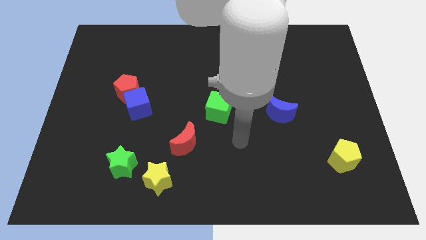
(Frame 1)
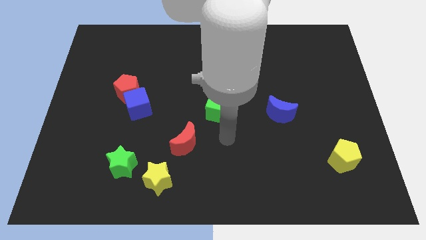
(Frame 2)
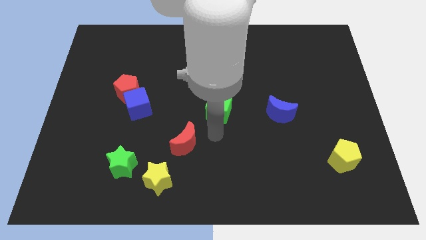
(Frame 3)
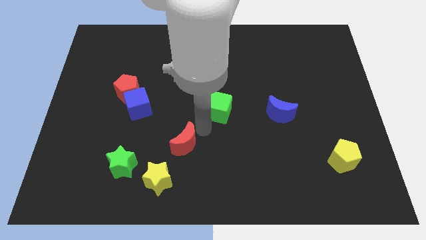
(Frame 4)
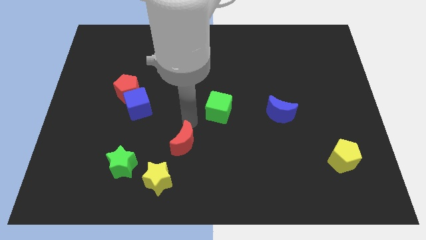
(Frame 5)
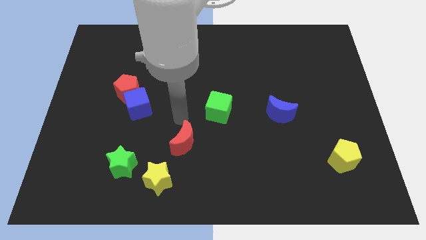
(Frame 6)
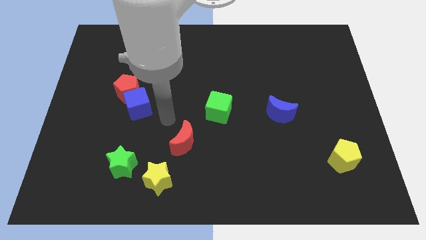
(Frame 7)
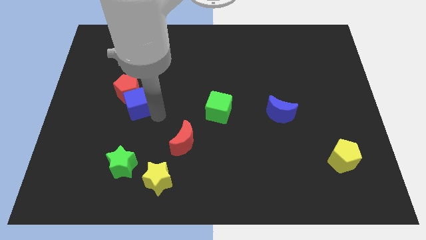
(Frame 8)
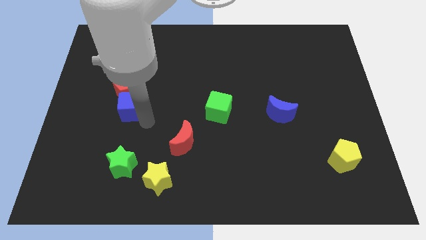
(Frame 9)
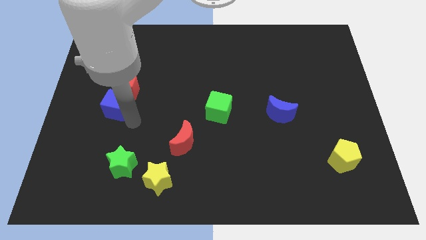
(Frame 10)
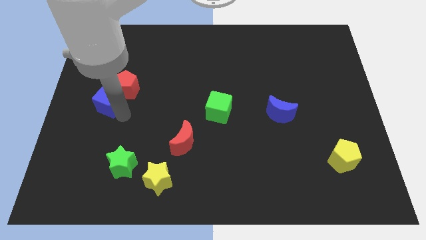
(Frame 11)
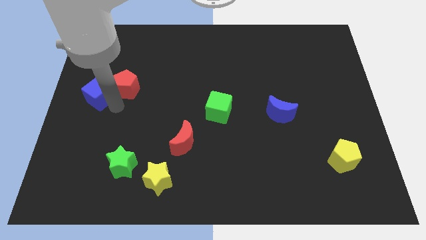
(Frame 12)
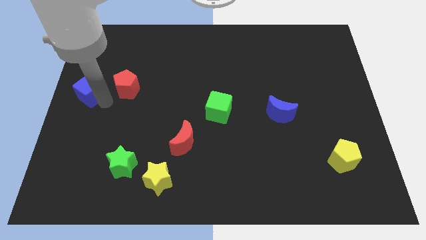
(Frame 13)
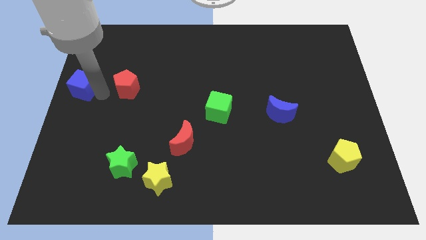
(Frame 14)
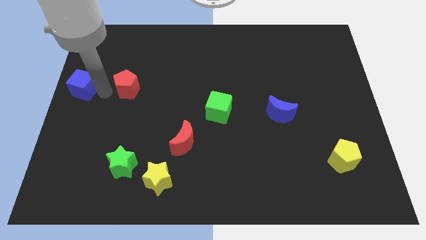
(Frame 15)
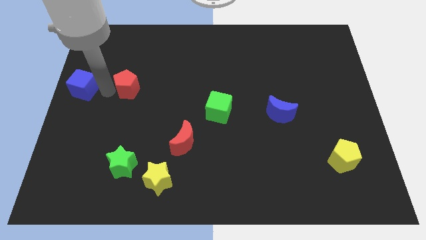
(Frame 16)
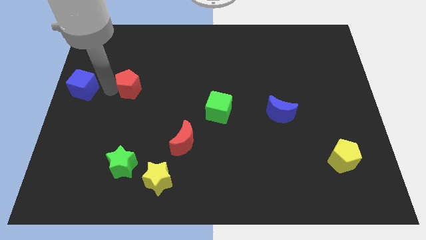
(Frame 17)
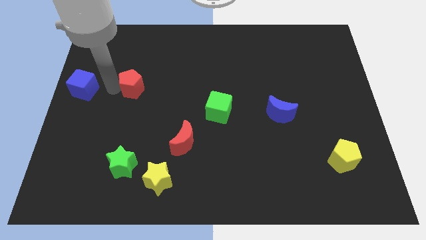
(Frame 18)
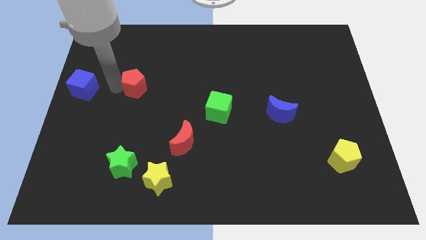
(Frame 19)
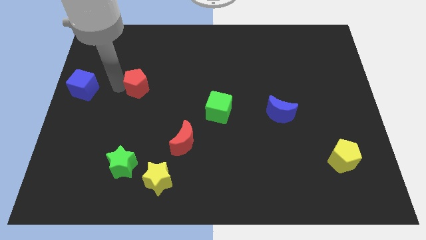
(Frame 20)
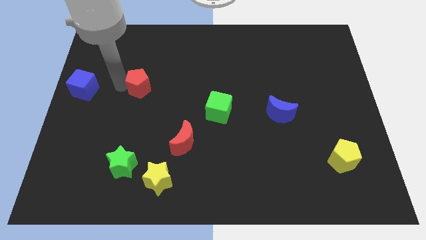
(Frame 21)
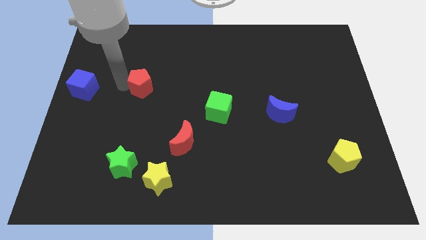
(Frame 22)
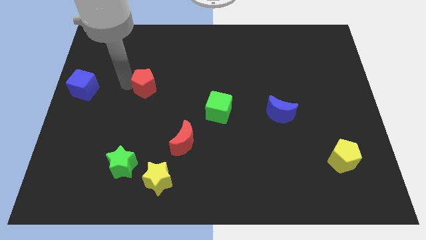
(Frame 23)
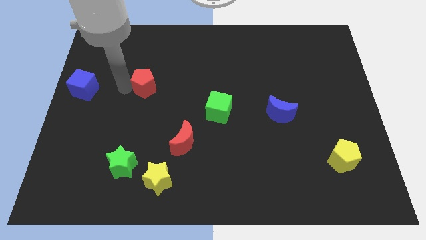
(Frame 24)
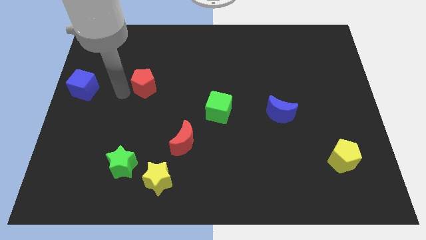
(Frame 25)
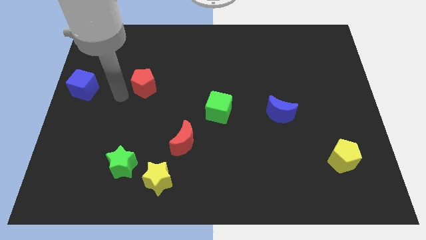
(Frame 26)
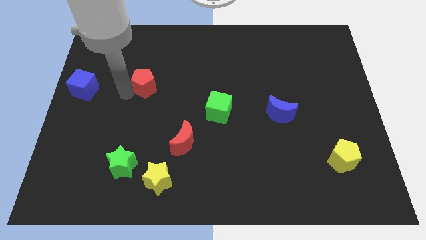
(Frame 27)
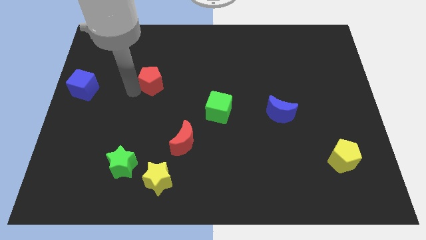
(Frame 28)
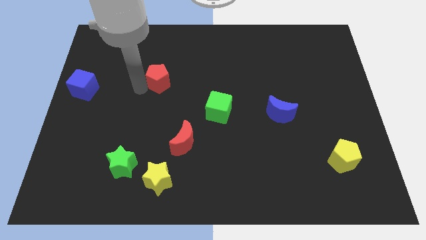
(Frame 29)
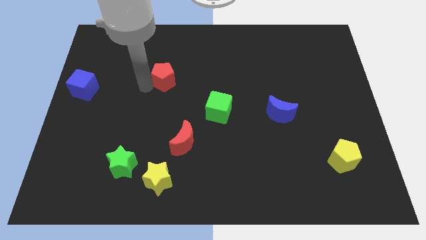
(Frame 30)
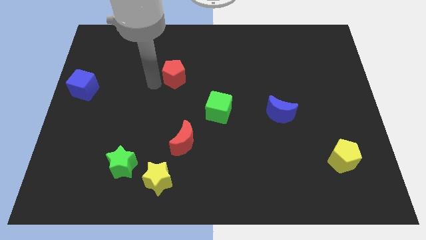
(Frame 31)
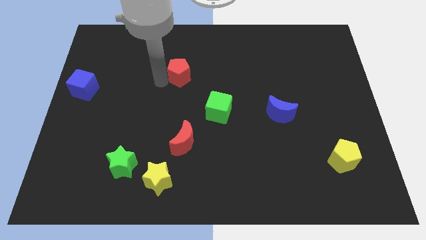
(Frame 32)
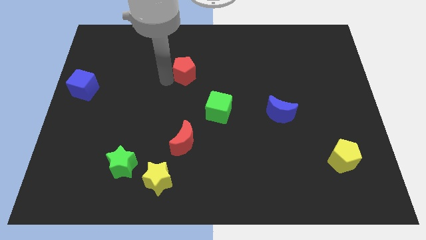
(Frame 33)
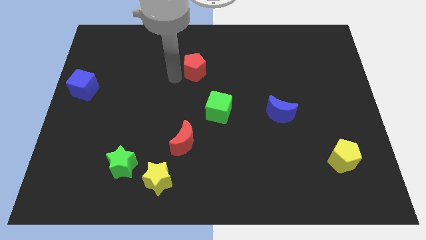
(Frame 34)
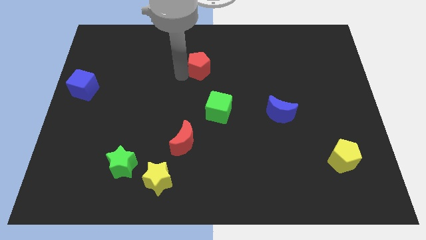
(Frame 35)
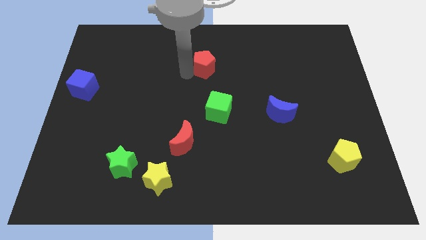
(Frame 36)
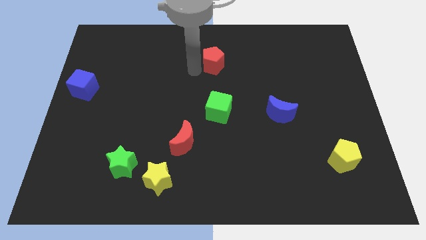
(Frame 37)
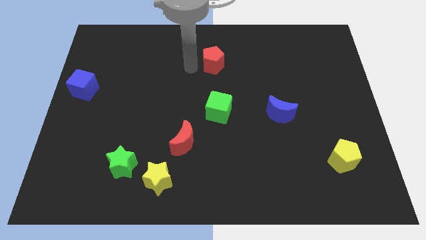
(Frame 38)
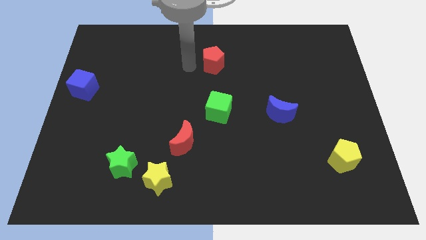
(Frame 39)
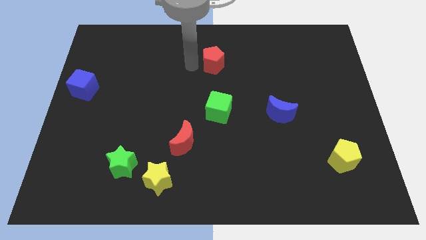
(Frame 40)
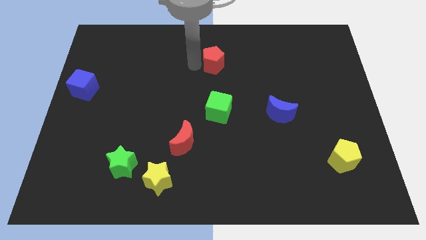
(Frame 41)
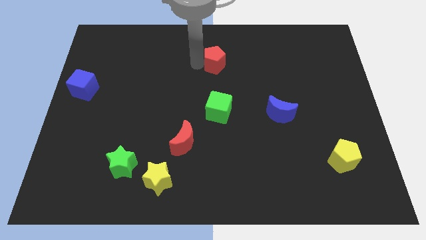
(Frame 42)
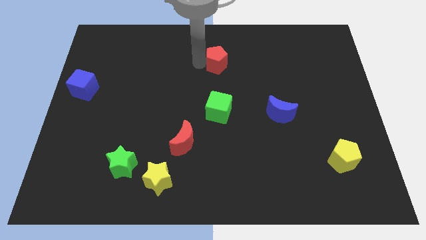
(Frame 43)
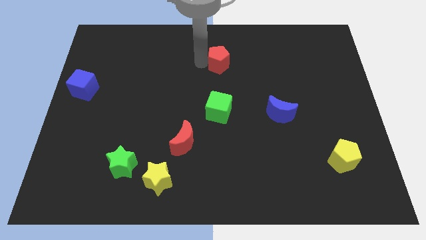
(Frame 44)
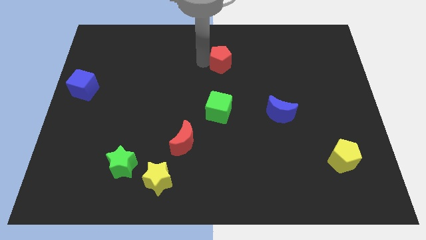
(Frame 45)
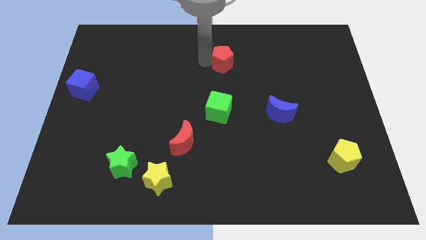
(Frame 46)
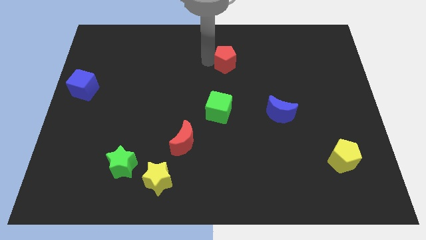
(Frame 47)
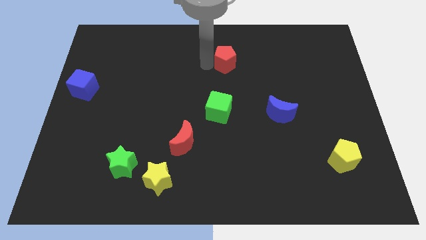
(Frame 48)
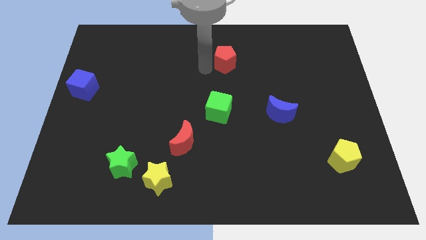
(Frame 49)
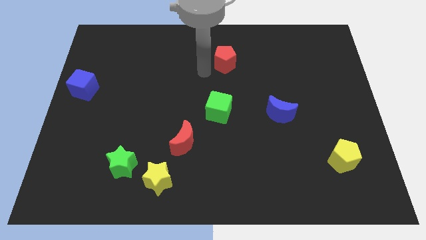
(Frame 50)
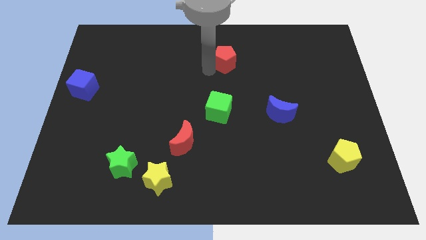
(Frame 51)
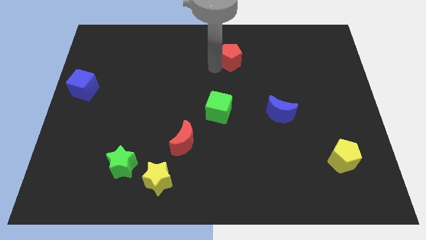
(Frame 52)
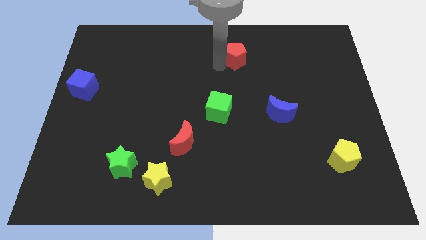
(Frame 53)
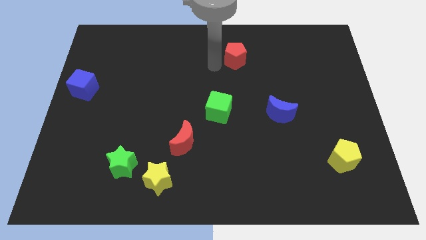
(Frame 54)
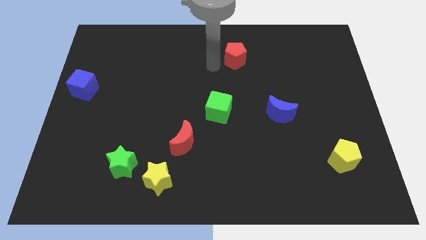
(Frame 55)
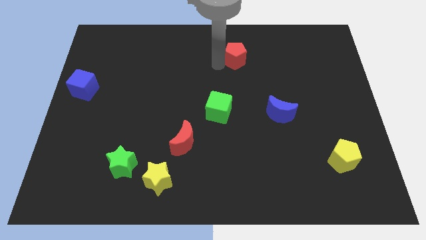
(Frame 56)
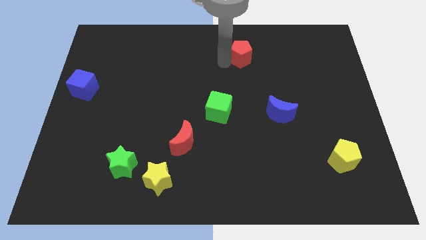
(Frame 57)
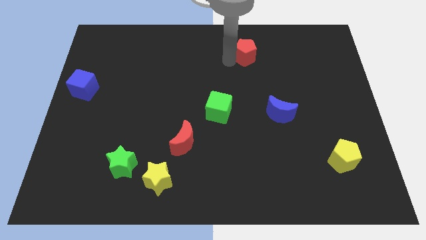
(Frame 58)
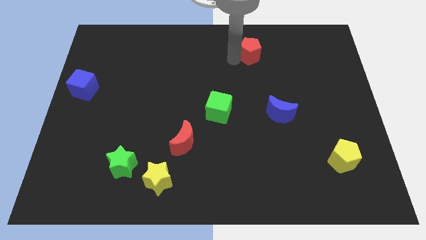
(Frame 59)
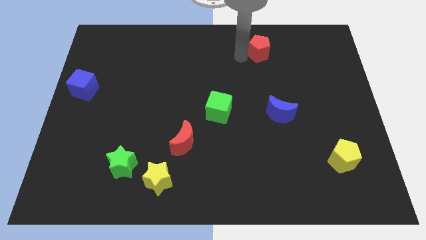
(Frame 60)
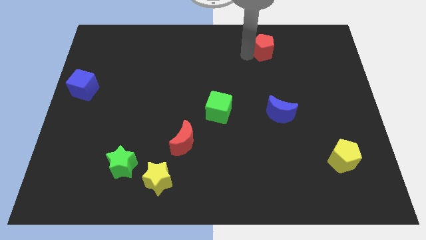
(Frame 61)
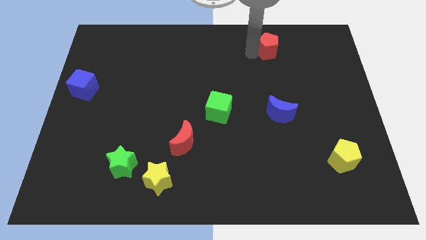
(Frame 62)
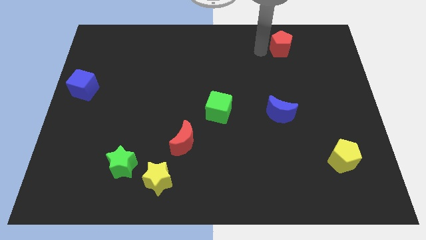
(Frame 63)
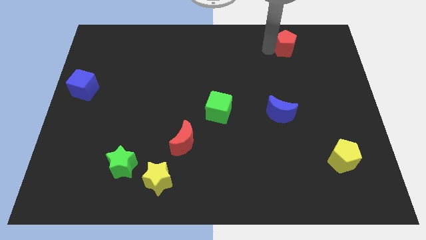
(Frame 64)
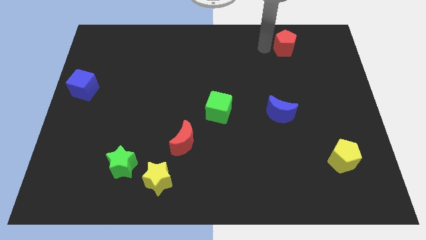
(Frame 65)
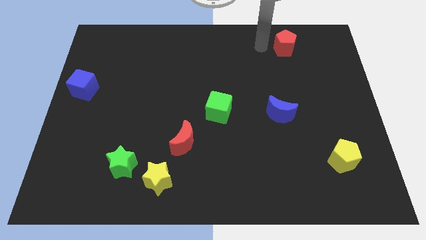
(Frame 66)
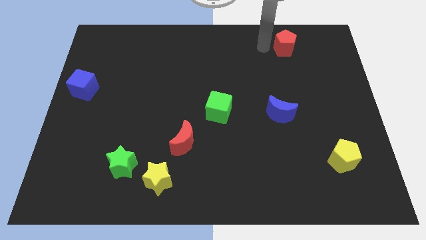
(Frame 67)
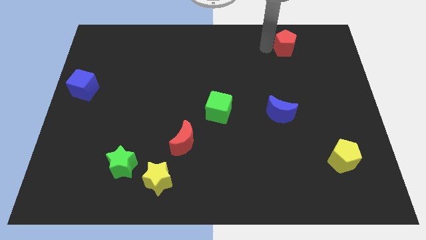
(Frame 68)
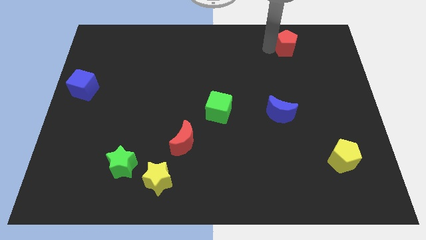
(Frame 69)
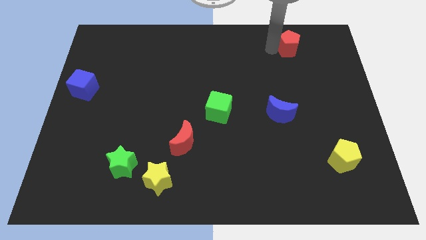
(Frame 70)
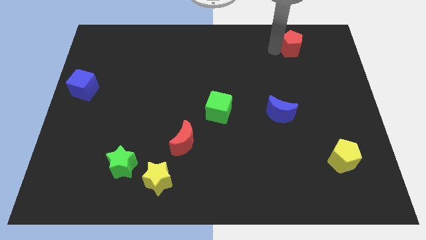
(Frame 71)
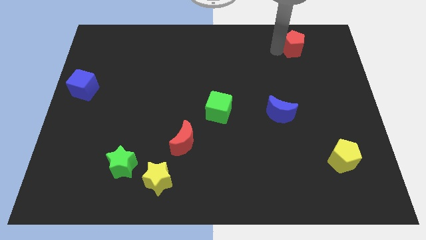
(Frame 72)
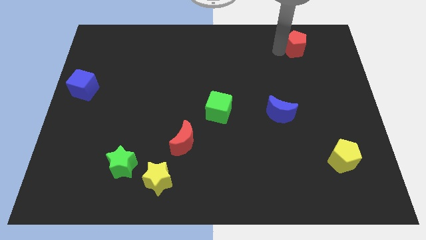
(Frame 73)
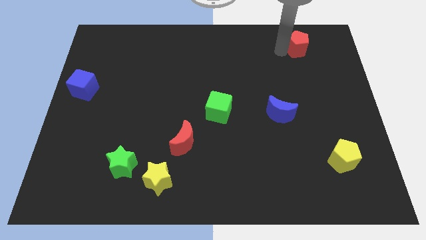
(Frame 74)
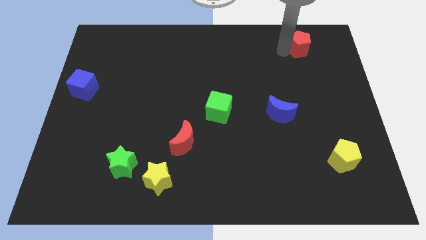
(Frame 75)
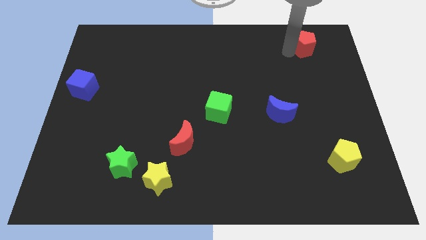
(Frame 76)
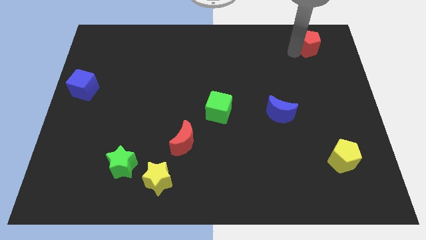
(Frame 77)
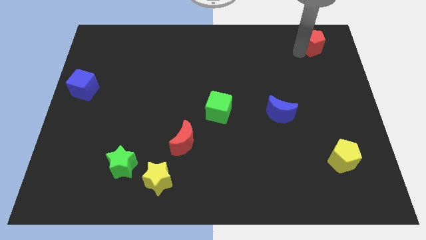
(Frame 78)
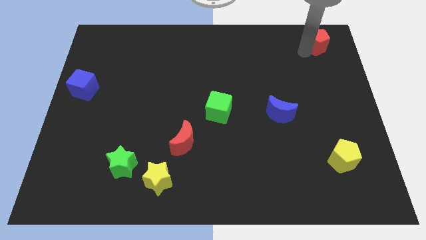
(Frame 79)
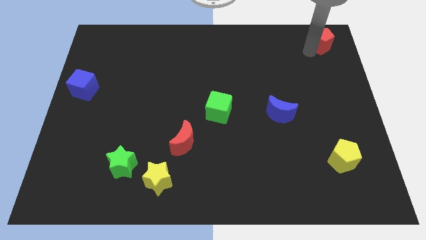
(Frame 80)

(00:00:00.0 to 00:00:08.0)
move the red pentagon to the upper right corner
